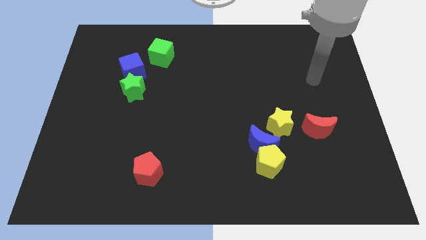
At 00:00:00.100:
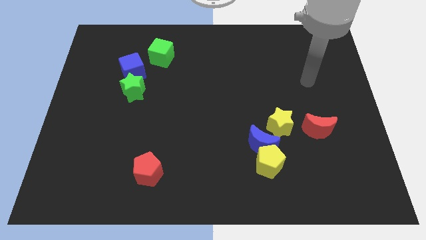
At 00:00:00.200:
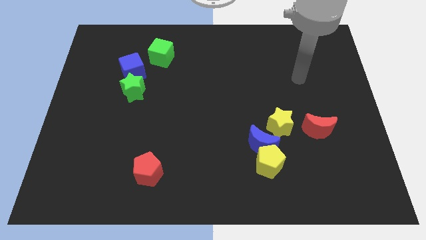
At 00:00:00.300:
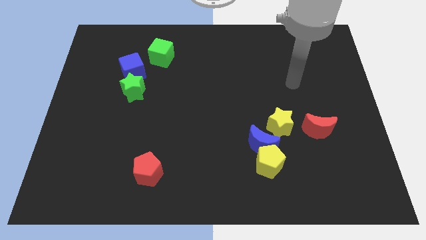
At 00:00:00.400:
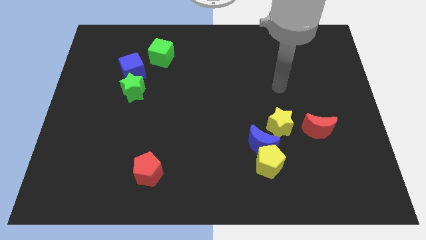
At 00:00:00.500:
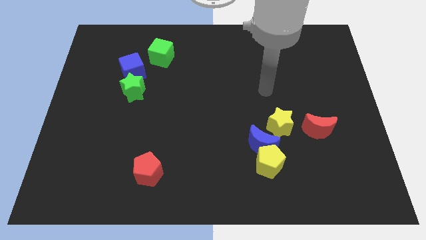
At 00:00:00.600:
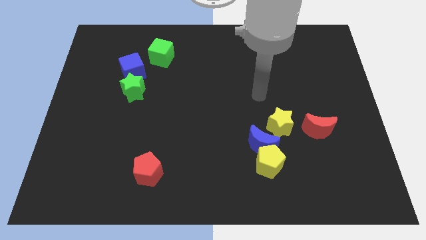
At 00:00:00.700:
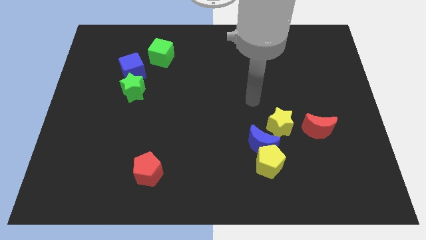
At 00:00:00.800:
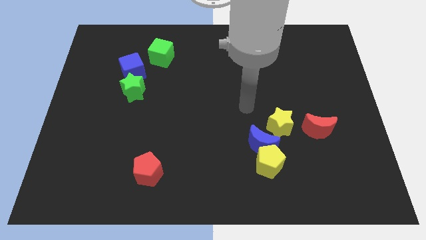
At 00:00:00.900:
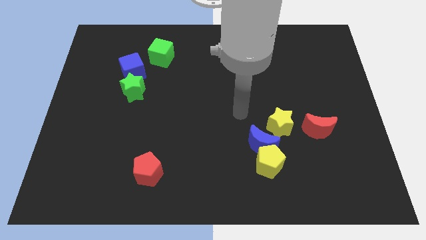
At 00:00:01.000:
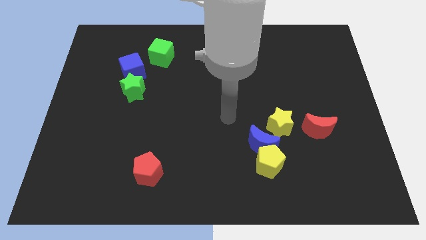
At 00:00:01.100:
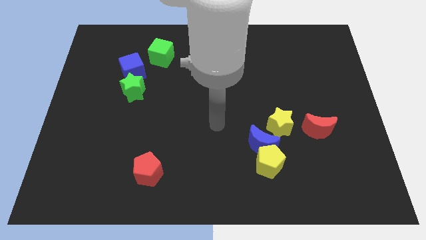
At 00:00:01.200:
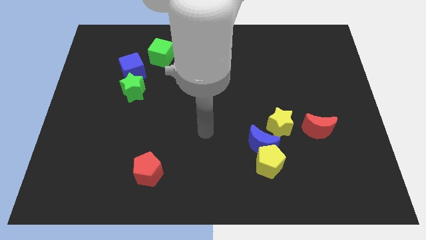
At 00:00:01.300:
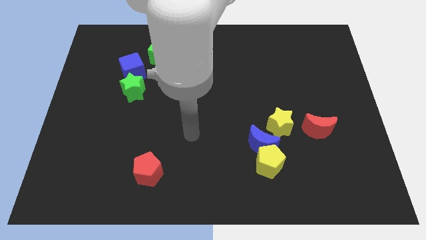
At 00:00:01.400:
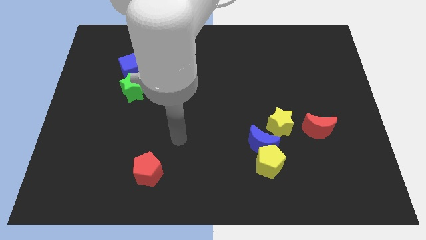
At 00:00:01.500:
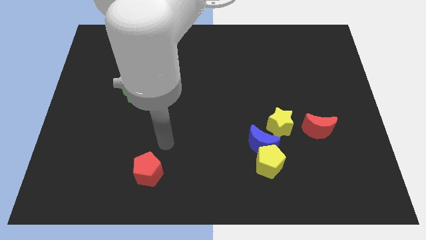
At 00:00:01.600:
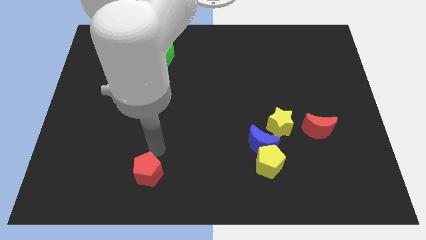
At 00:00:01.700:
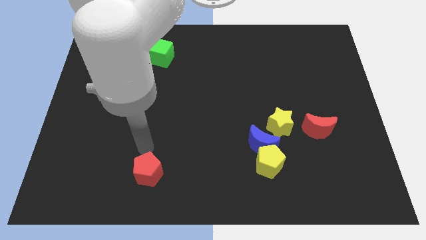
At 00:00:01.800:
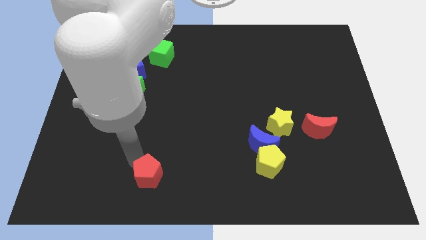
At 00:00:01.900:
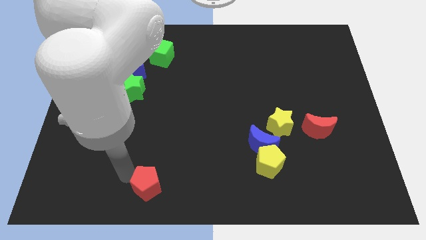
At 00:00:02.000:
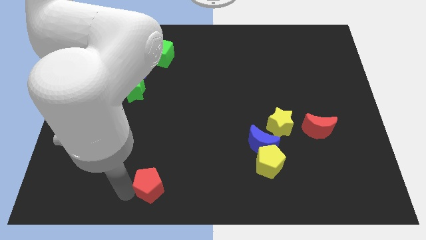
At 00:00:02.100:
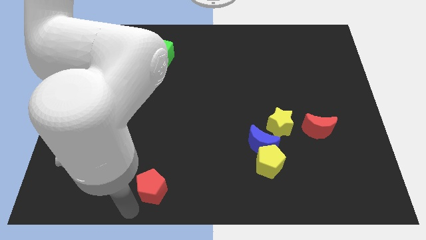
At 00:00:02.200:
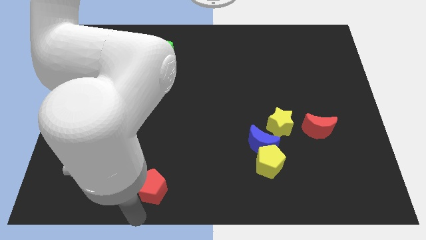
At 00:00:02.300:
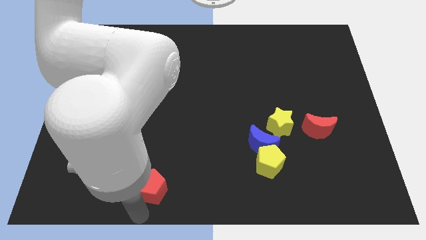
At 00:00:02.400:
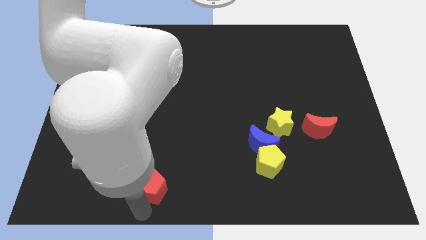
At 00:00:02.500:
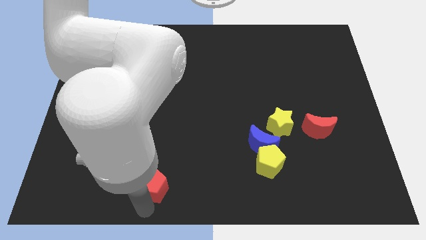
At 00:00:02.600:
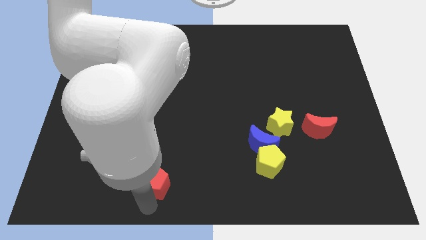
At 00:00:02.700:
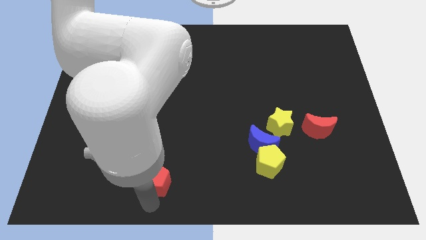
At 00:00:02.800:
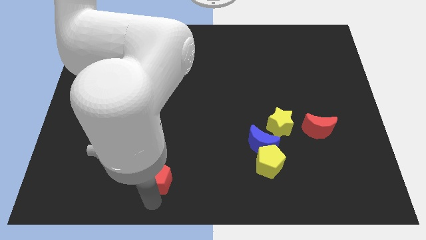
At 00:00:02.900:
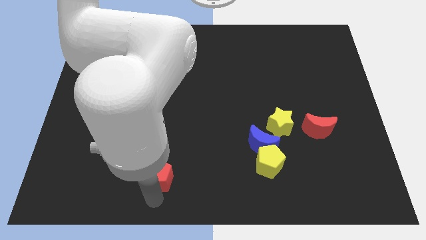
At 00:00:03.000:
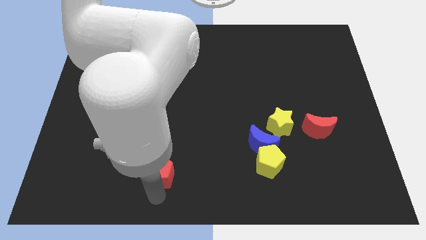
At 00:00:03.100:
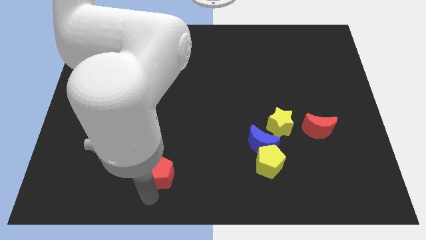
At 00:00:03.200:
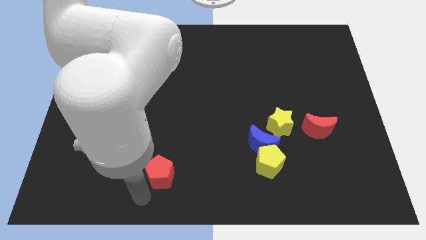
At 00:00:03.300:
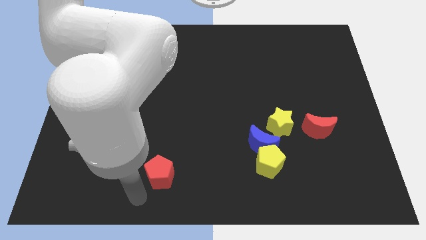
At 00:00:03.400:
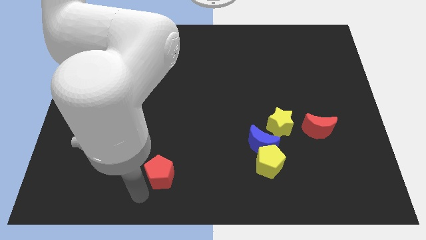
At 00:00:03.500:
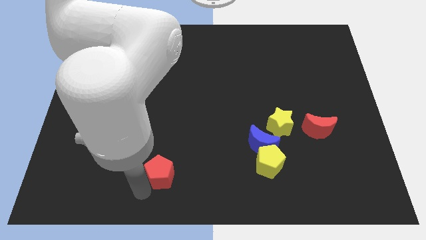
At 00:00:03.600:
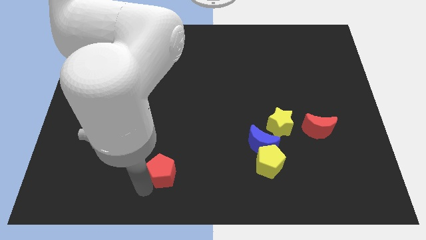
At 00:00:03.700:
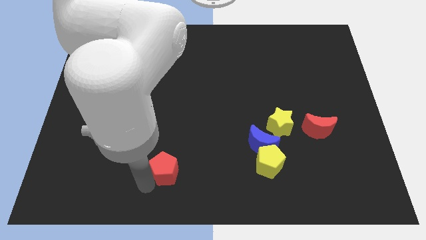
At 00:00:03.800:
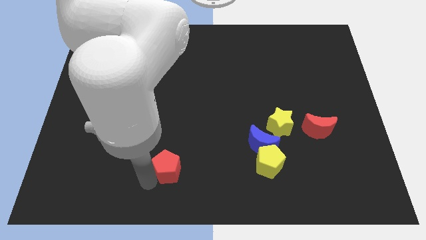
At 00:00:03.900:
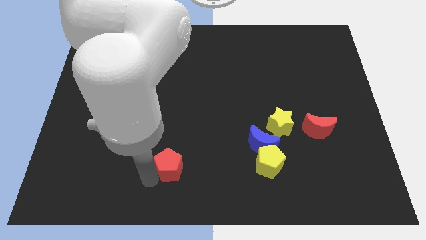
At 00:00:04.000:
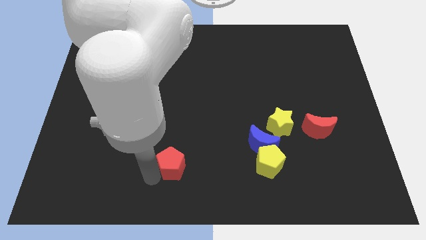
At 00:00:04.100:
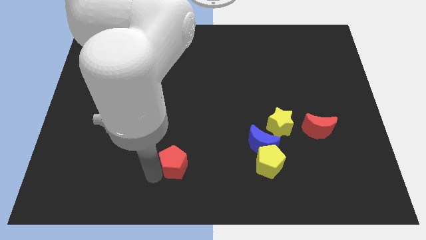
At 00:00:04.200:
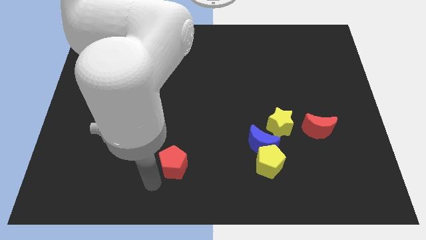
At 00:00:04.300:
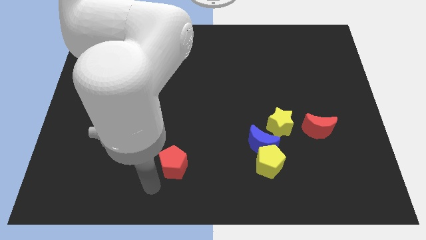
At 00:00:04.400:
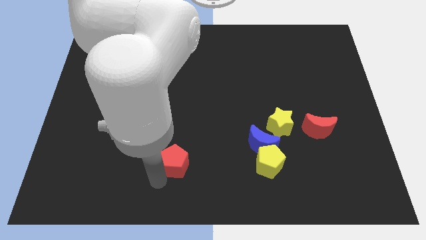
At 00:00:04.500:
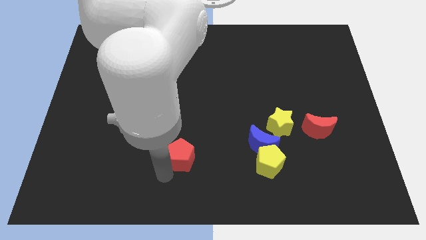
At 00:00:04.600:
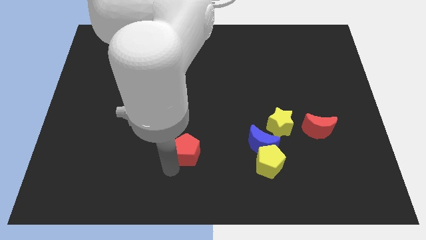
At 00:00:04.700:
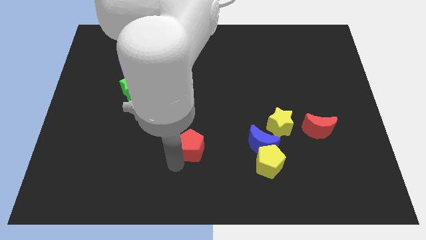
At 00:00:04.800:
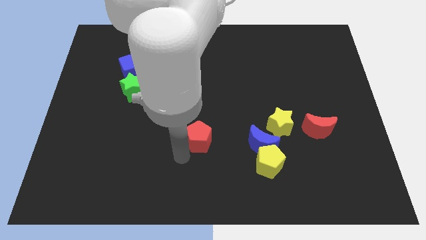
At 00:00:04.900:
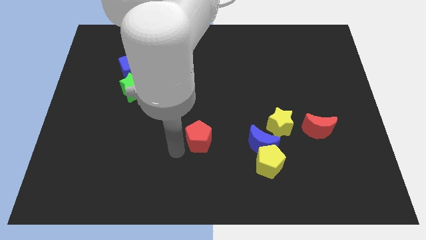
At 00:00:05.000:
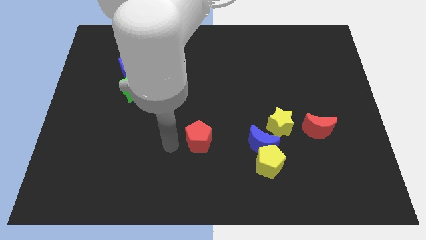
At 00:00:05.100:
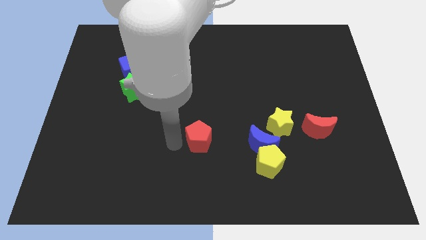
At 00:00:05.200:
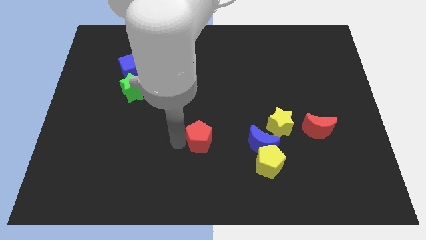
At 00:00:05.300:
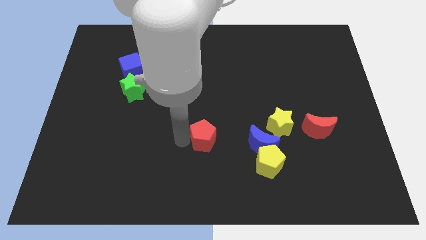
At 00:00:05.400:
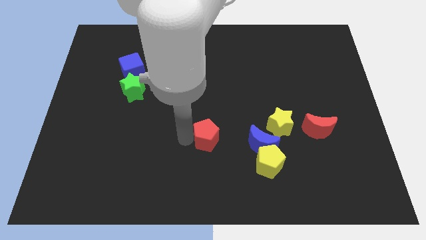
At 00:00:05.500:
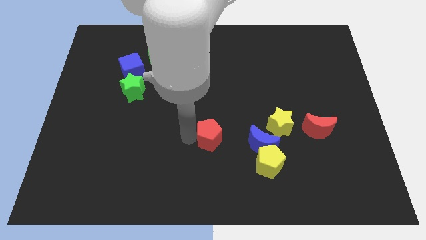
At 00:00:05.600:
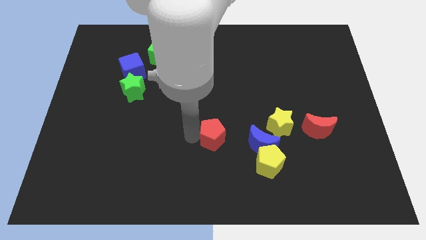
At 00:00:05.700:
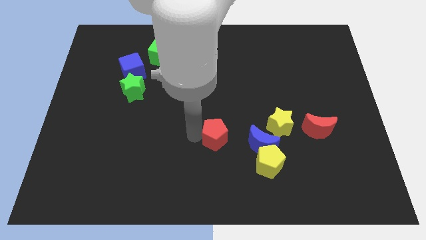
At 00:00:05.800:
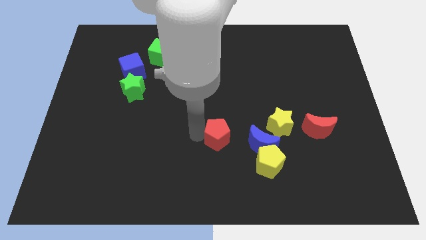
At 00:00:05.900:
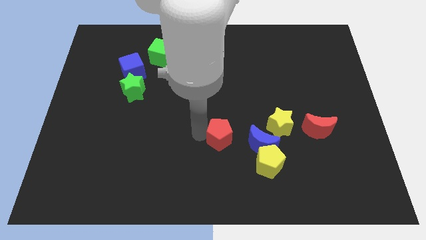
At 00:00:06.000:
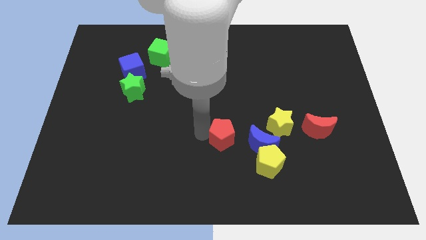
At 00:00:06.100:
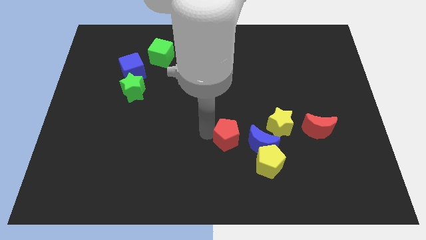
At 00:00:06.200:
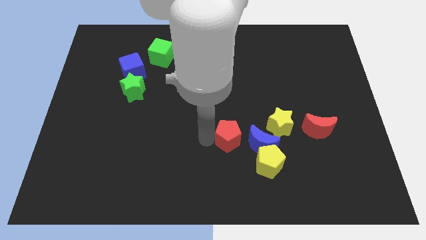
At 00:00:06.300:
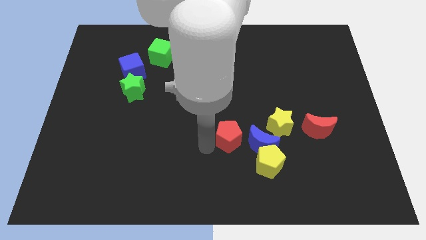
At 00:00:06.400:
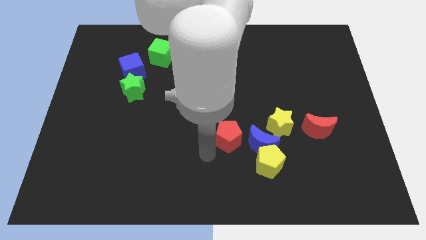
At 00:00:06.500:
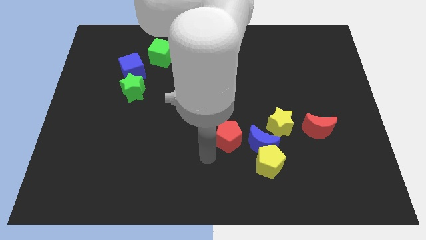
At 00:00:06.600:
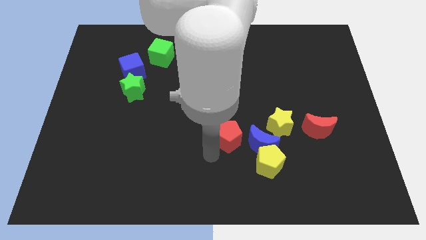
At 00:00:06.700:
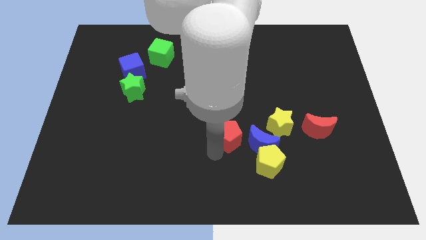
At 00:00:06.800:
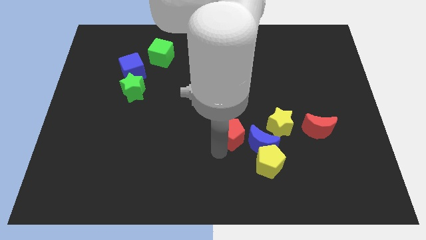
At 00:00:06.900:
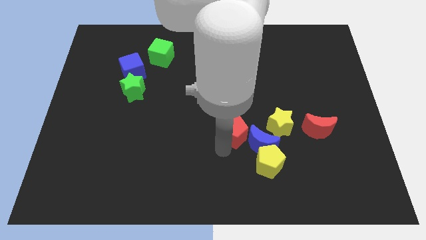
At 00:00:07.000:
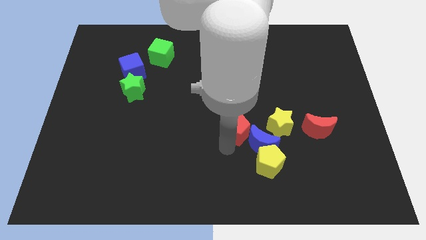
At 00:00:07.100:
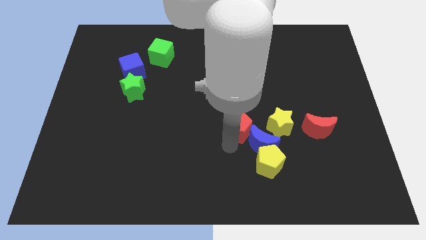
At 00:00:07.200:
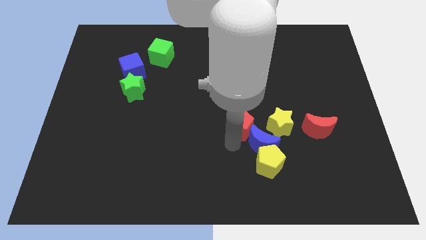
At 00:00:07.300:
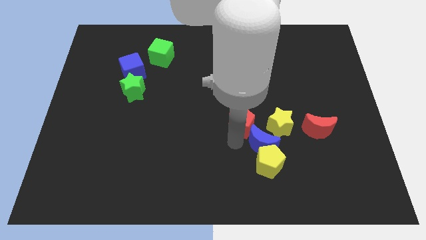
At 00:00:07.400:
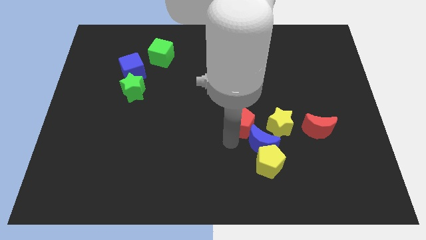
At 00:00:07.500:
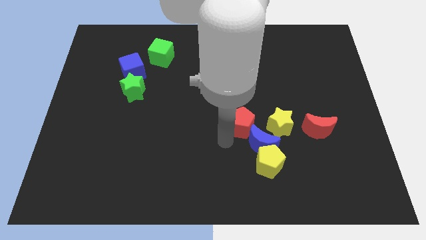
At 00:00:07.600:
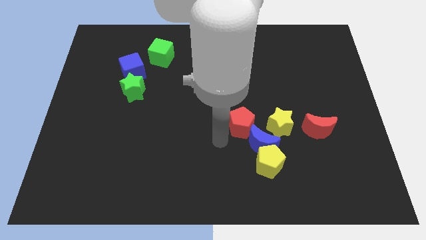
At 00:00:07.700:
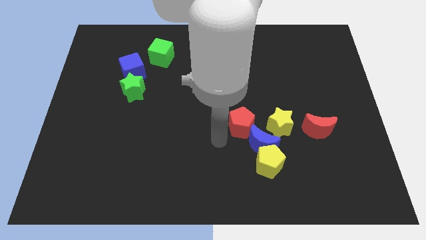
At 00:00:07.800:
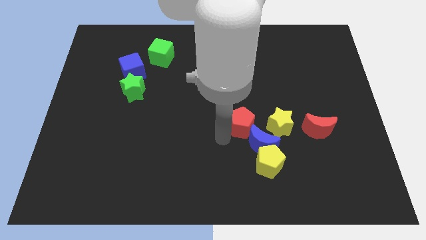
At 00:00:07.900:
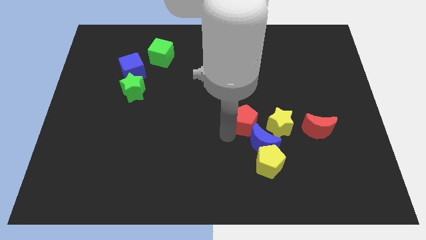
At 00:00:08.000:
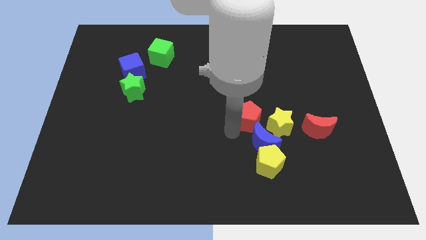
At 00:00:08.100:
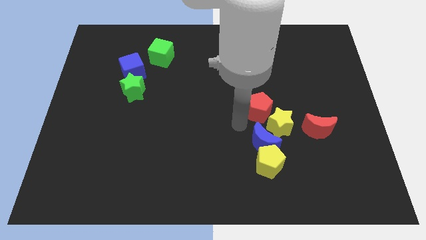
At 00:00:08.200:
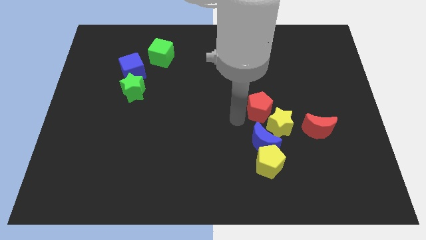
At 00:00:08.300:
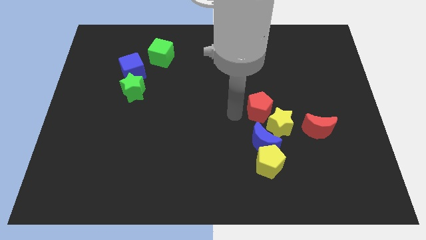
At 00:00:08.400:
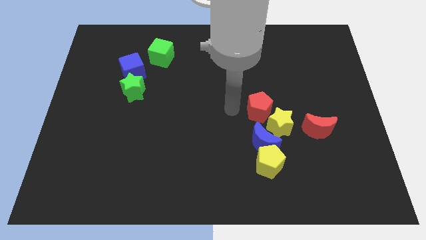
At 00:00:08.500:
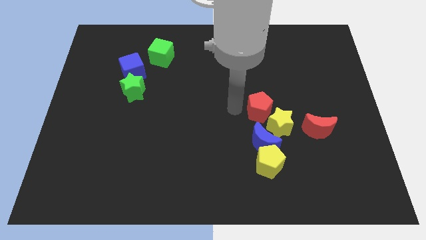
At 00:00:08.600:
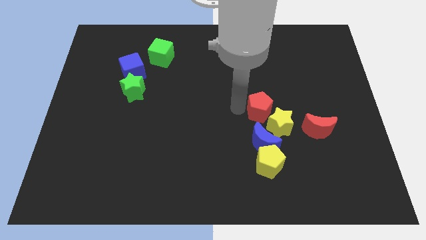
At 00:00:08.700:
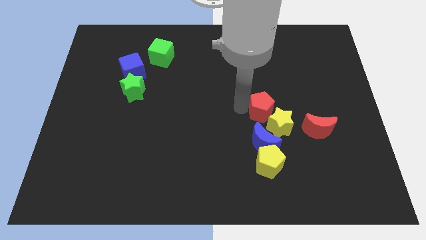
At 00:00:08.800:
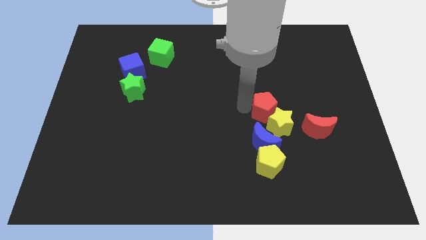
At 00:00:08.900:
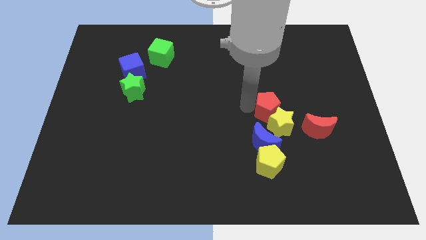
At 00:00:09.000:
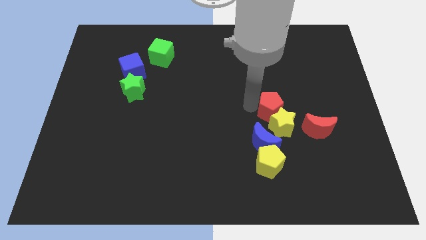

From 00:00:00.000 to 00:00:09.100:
move the red pentagon to the top left of the red moon
